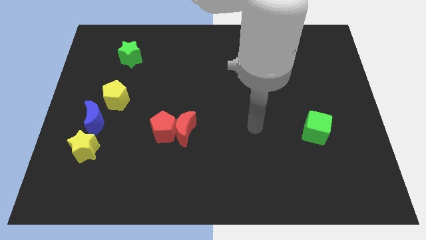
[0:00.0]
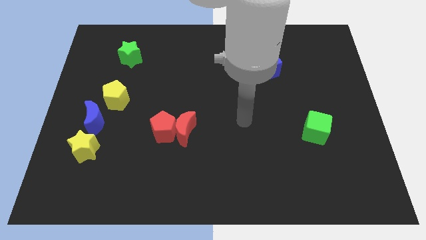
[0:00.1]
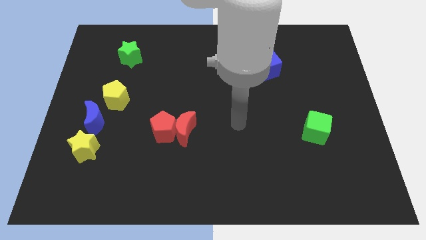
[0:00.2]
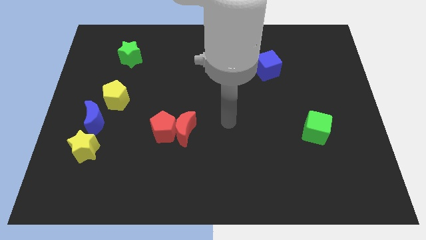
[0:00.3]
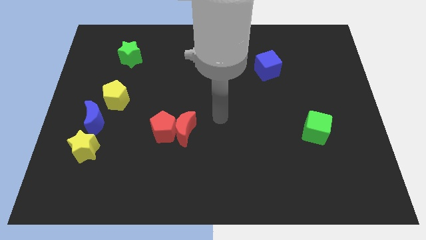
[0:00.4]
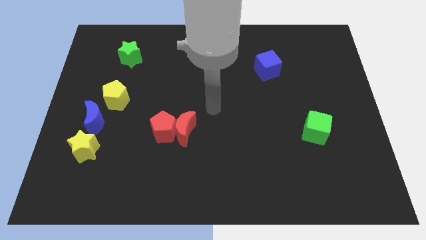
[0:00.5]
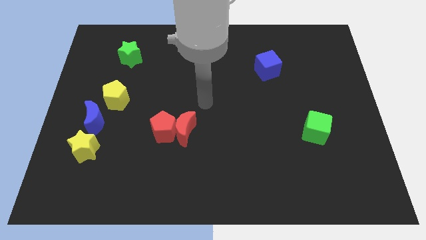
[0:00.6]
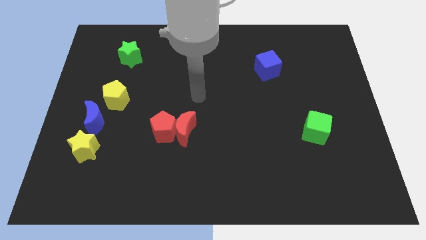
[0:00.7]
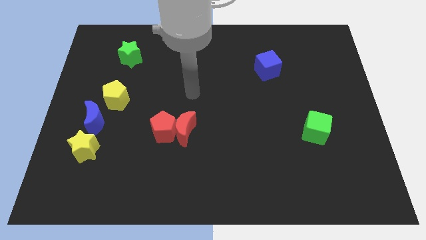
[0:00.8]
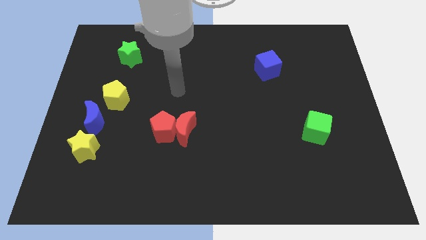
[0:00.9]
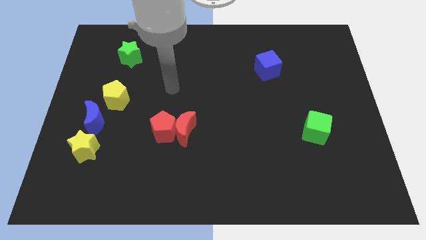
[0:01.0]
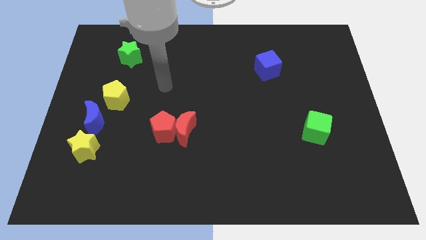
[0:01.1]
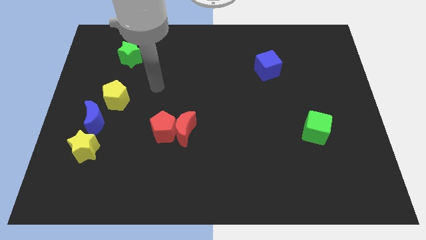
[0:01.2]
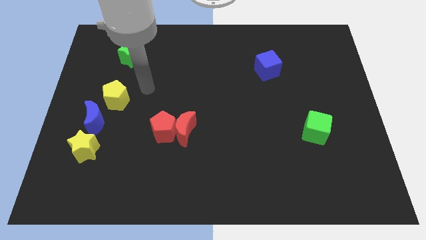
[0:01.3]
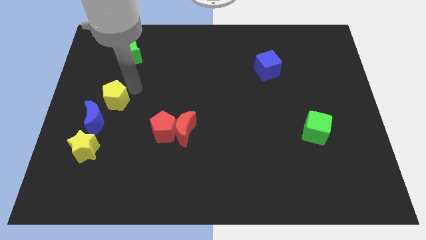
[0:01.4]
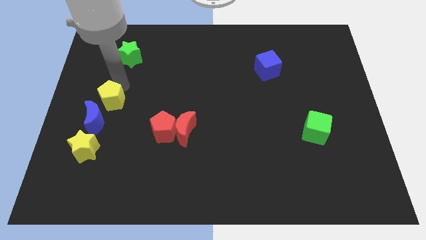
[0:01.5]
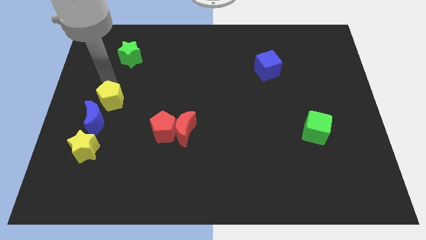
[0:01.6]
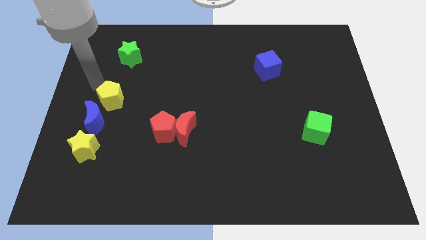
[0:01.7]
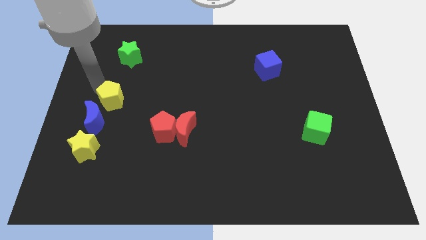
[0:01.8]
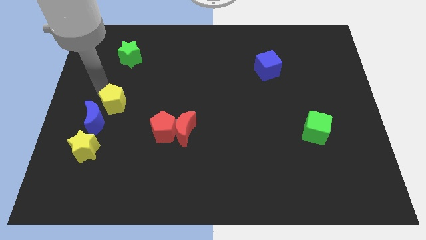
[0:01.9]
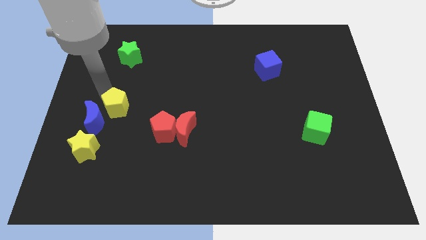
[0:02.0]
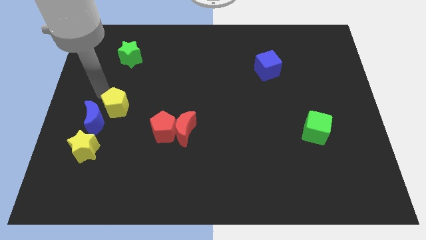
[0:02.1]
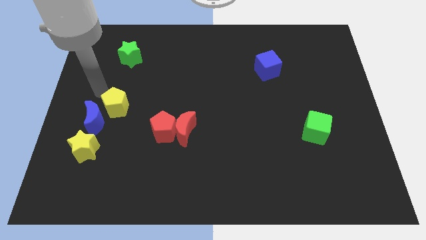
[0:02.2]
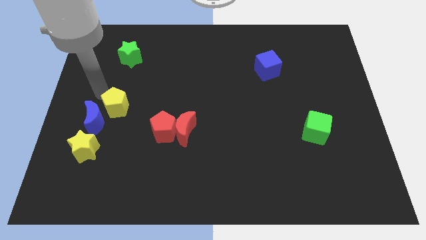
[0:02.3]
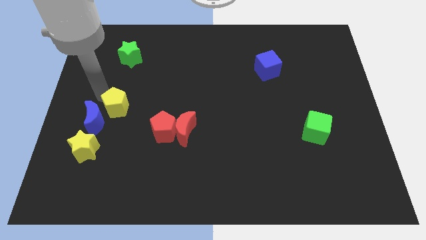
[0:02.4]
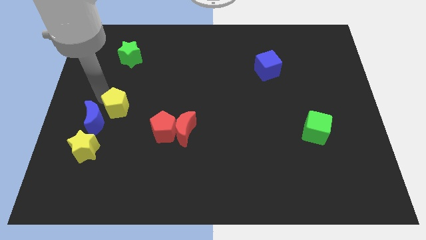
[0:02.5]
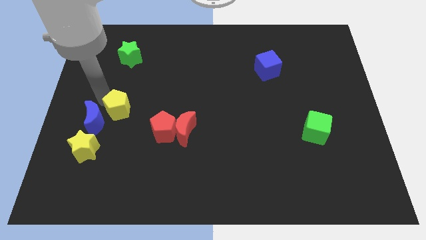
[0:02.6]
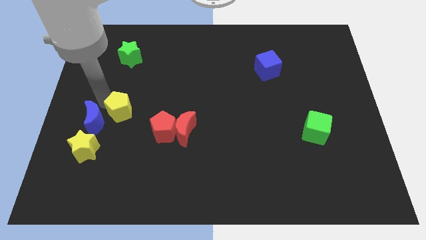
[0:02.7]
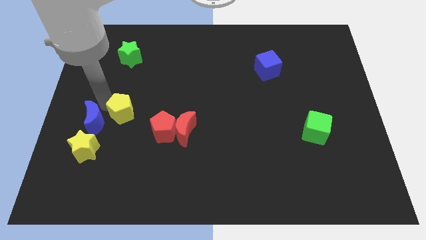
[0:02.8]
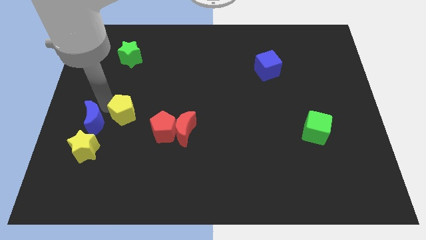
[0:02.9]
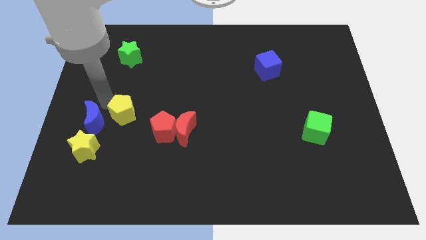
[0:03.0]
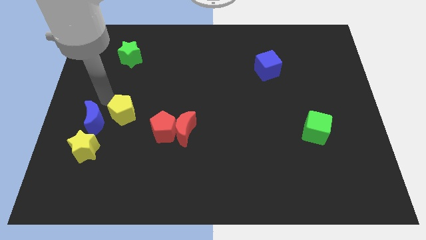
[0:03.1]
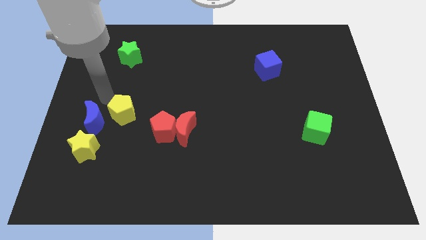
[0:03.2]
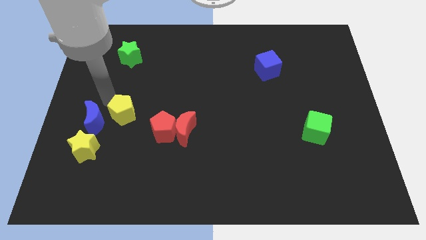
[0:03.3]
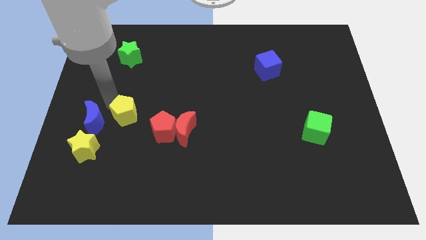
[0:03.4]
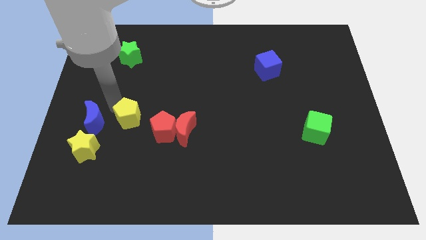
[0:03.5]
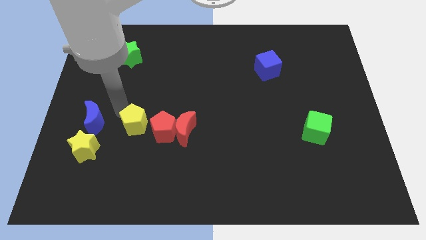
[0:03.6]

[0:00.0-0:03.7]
push the yellow pentagon a little downwards and then to the right

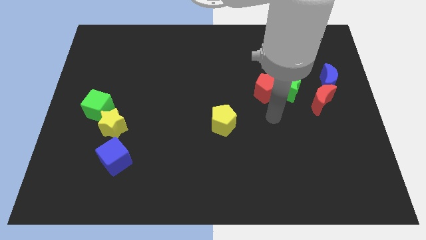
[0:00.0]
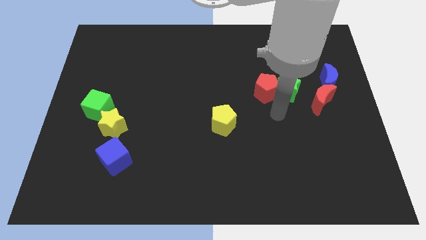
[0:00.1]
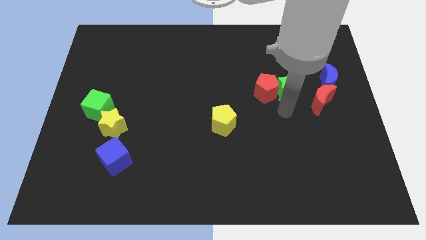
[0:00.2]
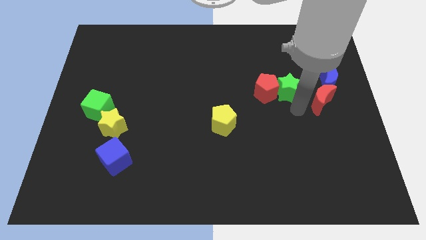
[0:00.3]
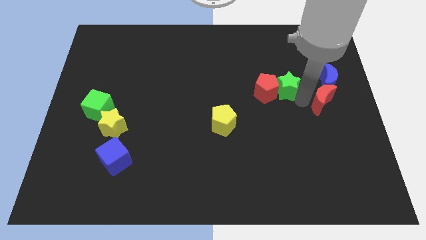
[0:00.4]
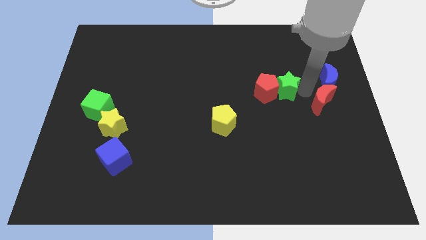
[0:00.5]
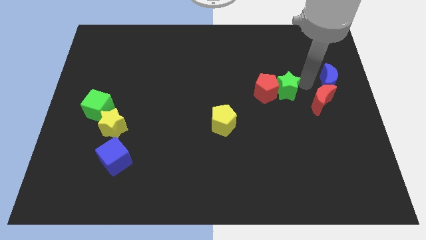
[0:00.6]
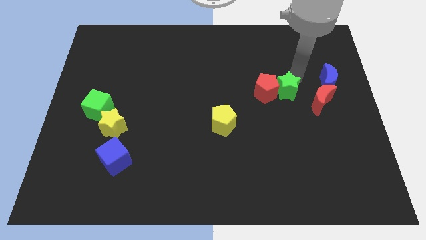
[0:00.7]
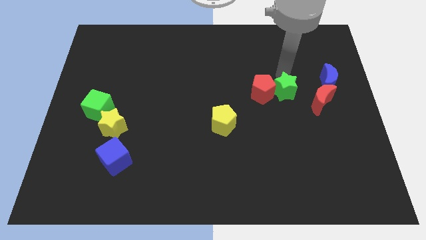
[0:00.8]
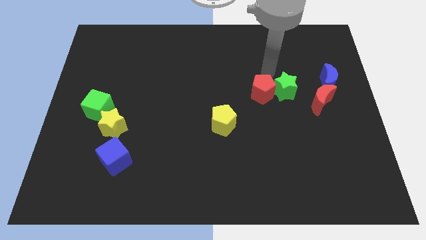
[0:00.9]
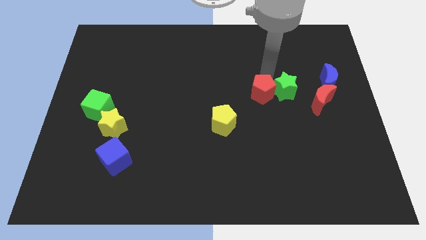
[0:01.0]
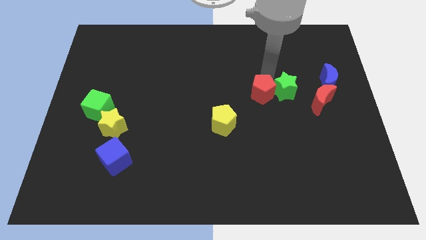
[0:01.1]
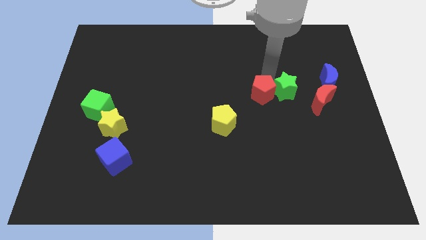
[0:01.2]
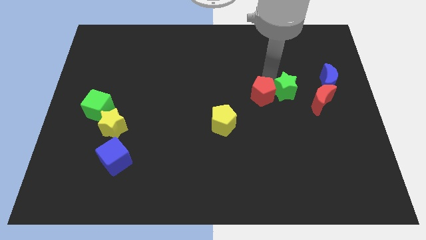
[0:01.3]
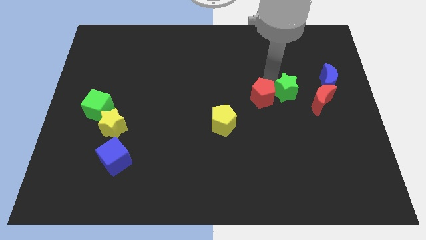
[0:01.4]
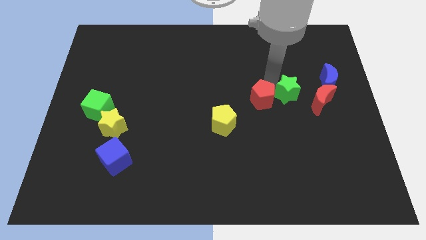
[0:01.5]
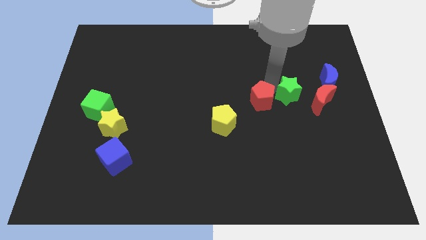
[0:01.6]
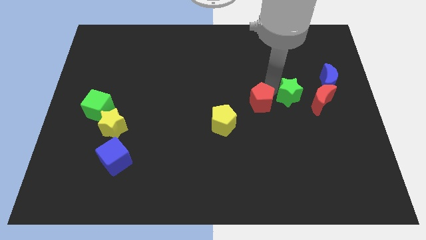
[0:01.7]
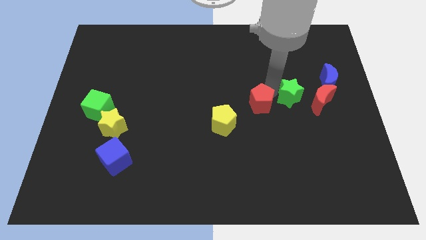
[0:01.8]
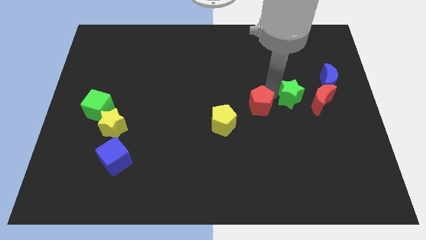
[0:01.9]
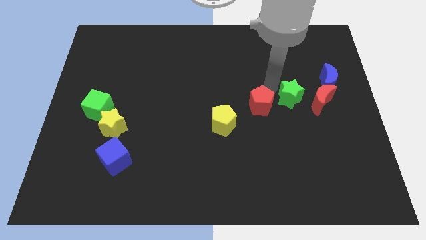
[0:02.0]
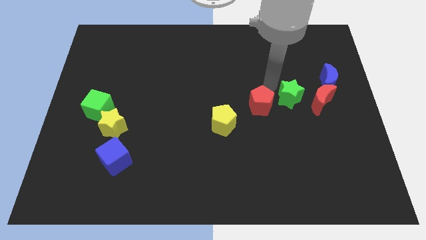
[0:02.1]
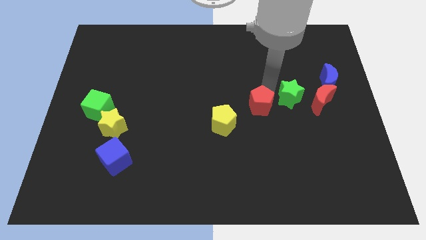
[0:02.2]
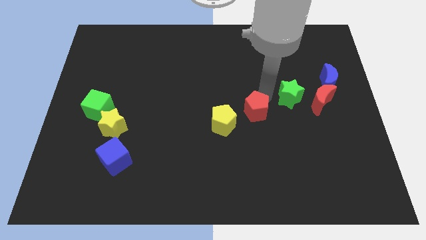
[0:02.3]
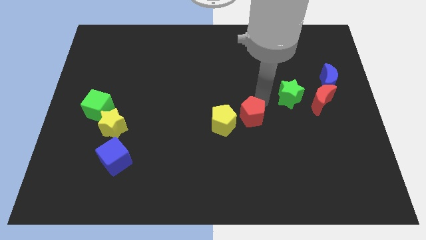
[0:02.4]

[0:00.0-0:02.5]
slide the red pentagon a little bit down and then left

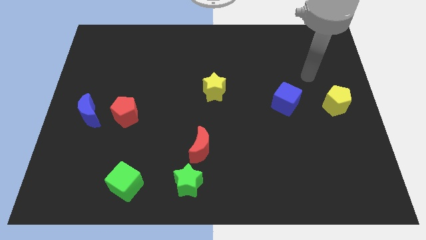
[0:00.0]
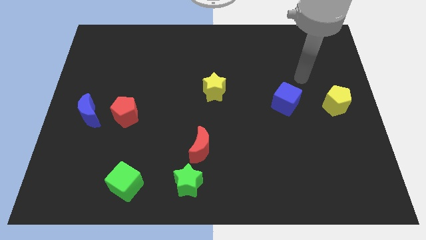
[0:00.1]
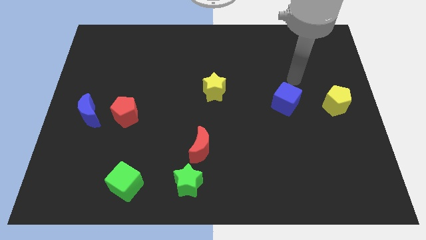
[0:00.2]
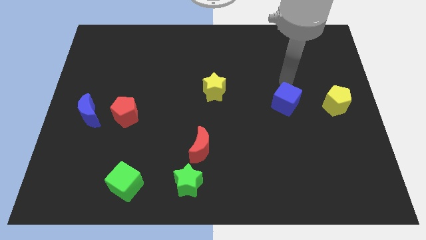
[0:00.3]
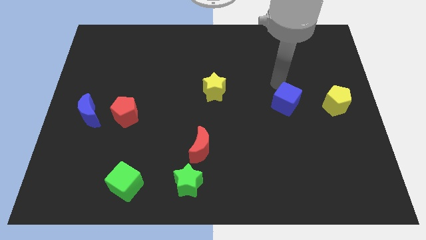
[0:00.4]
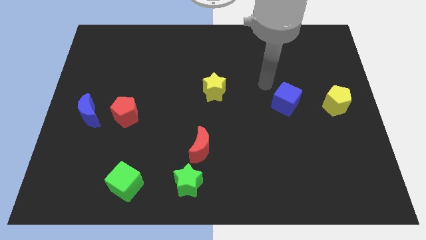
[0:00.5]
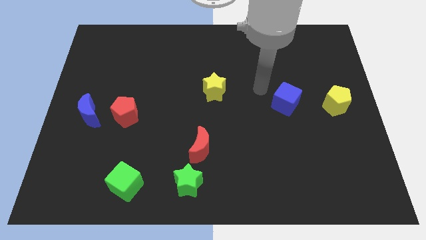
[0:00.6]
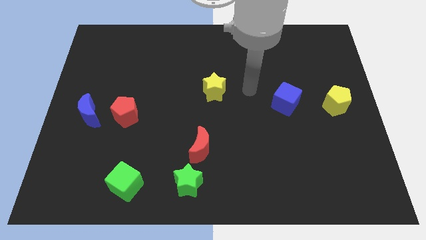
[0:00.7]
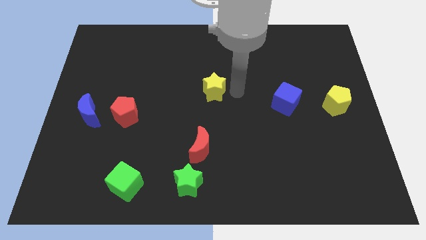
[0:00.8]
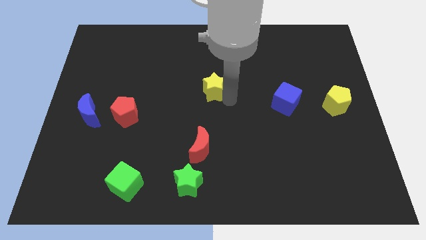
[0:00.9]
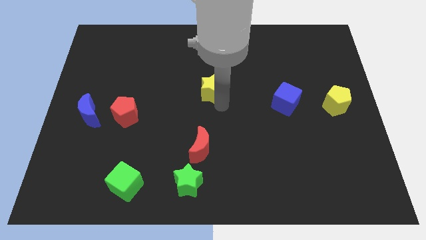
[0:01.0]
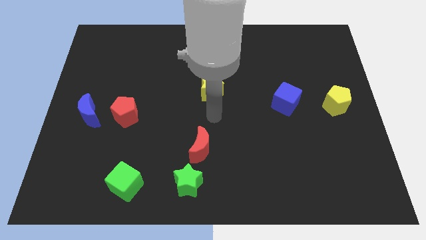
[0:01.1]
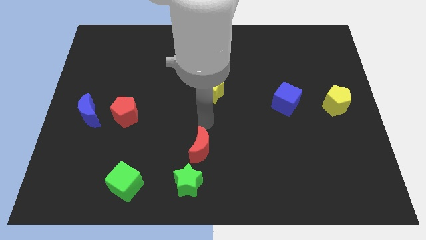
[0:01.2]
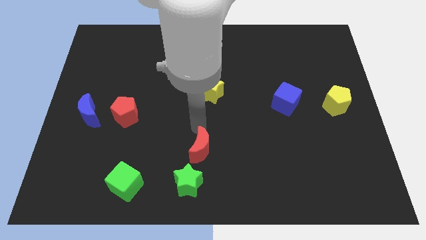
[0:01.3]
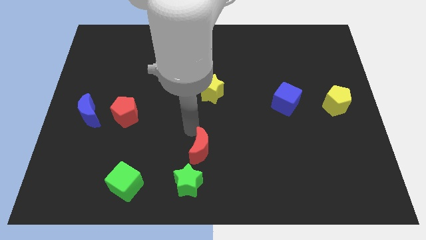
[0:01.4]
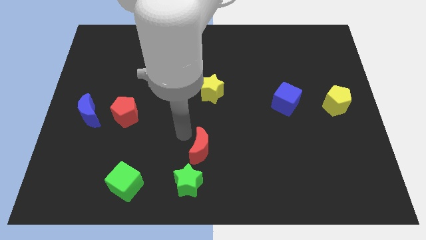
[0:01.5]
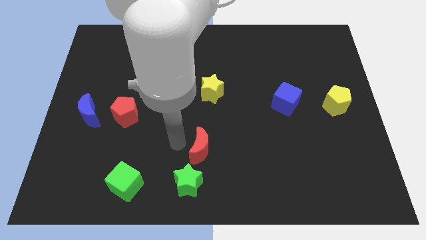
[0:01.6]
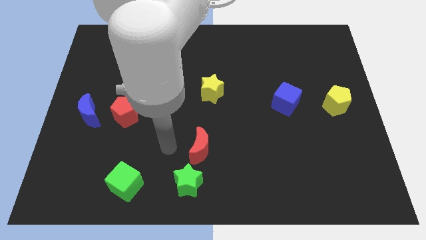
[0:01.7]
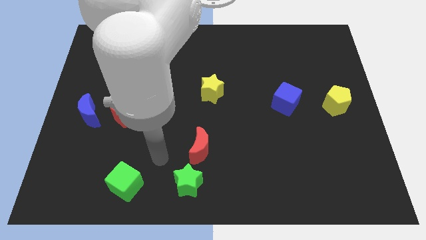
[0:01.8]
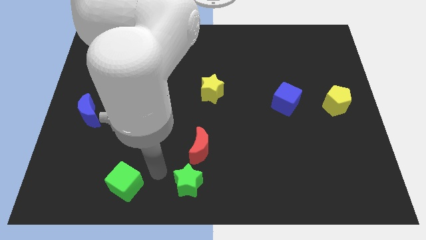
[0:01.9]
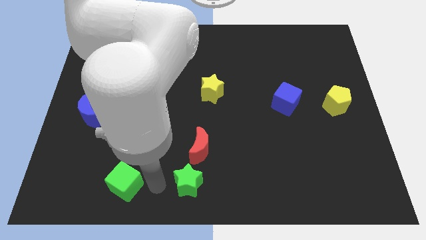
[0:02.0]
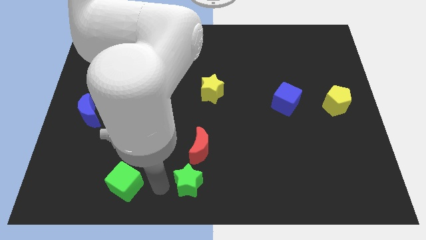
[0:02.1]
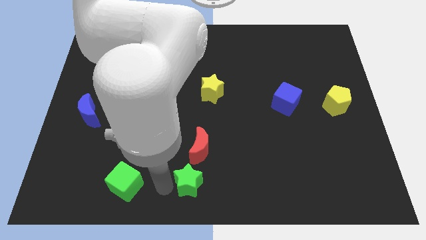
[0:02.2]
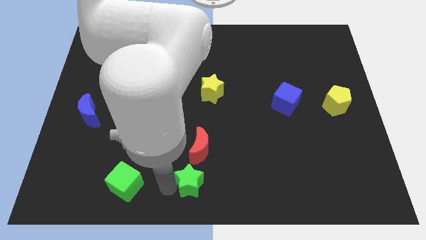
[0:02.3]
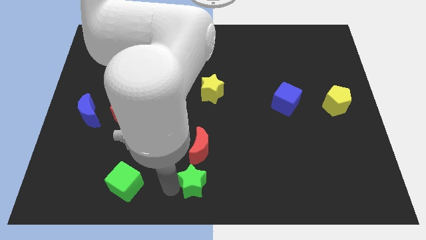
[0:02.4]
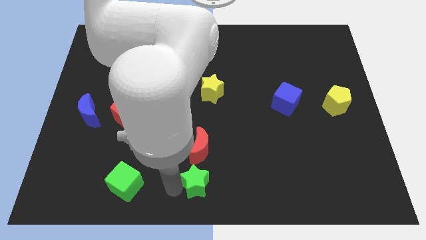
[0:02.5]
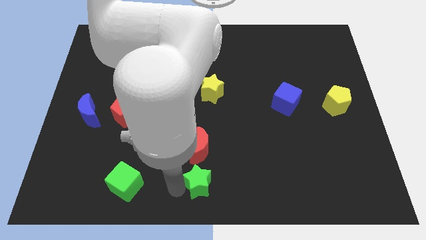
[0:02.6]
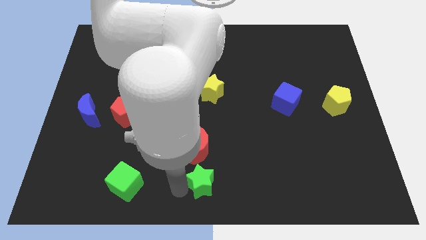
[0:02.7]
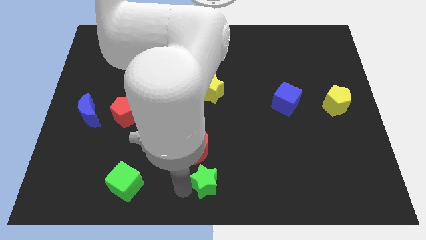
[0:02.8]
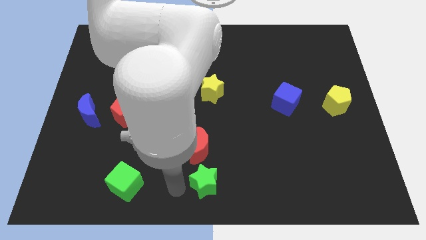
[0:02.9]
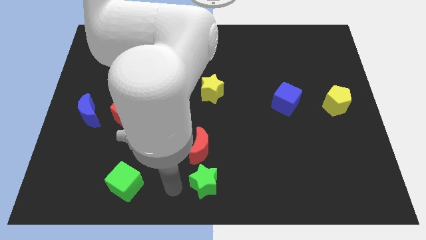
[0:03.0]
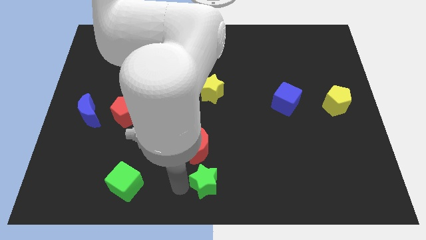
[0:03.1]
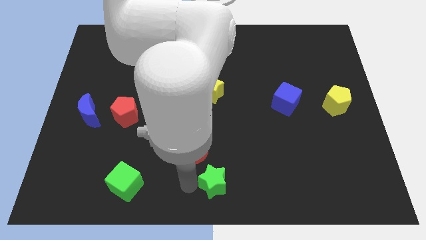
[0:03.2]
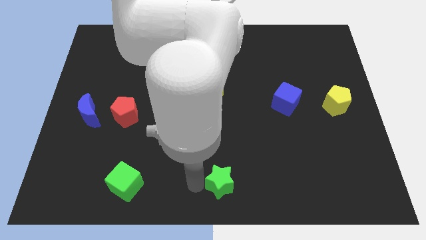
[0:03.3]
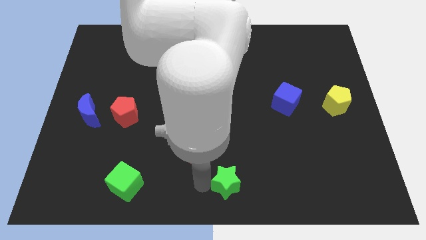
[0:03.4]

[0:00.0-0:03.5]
move the green star to the right somewhat
